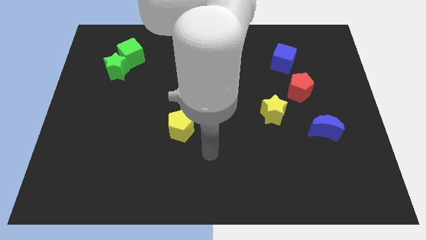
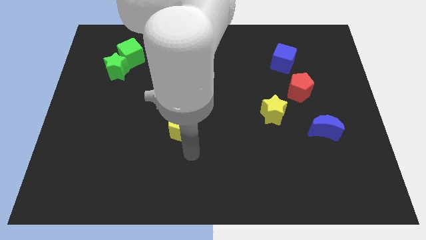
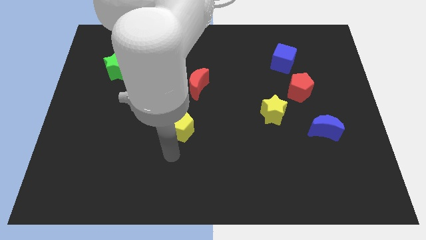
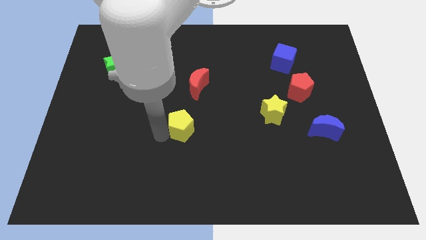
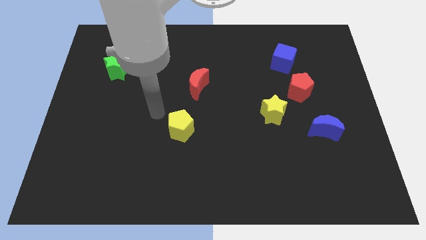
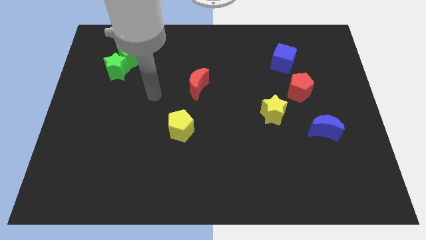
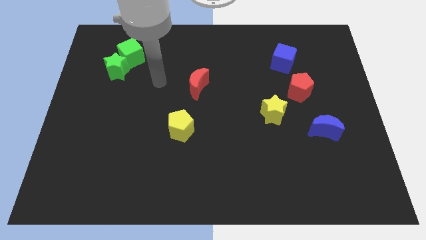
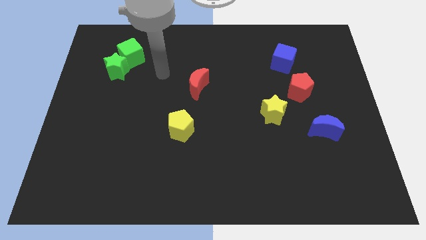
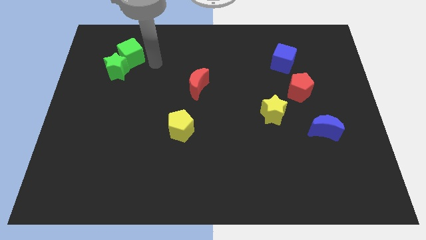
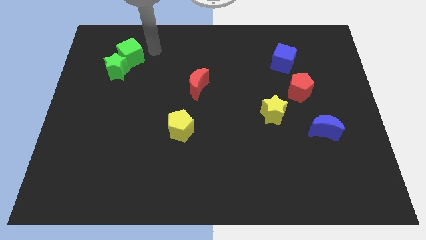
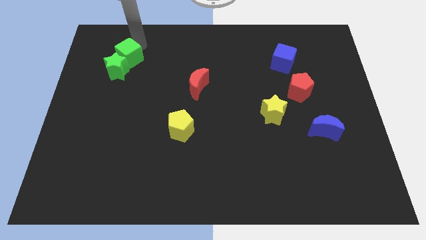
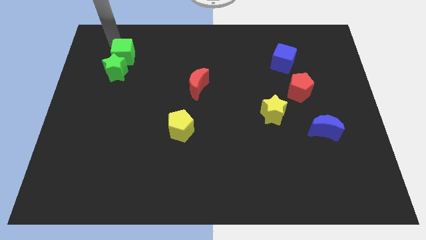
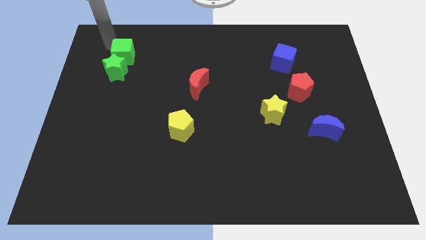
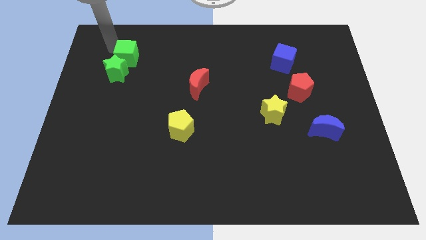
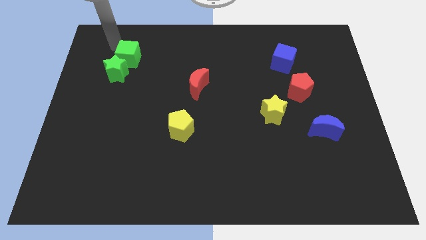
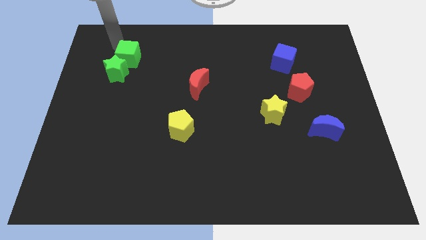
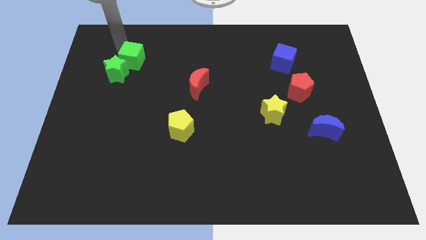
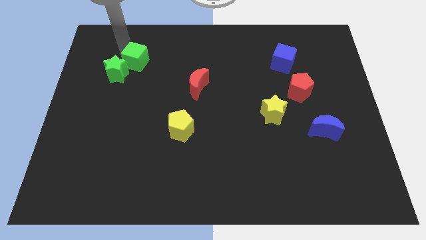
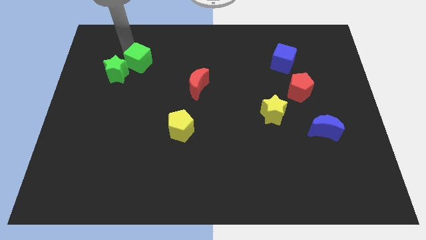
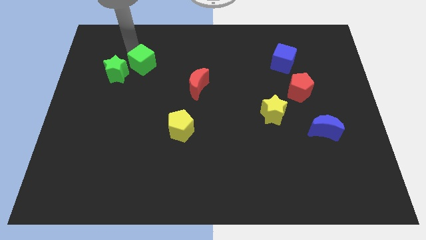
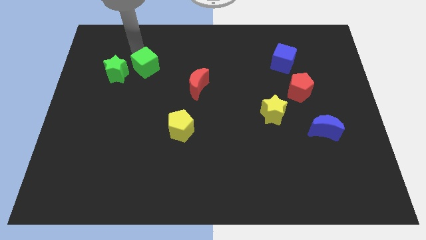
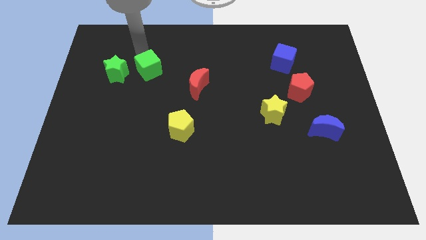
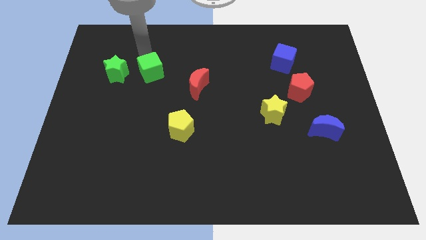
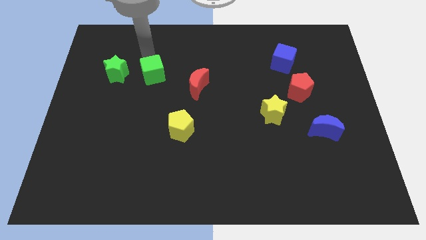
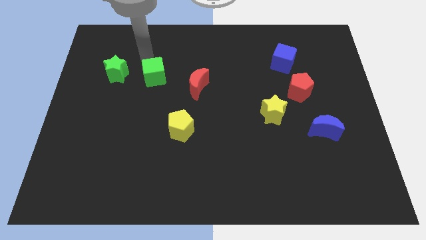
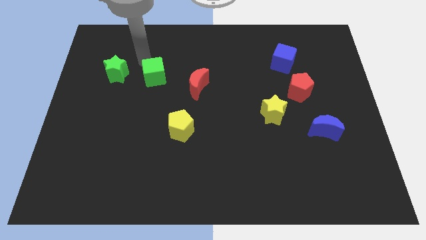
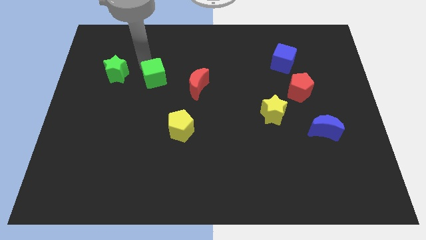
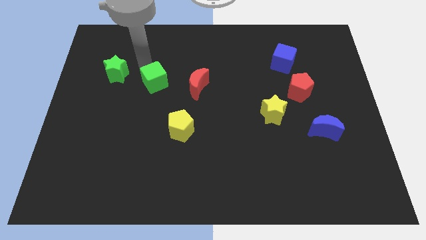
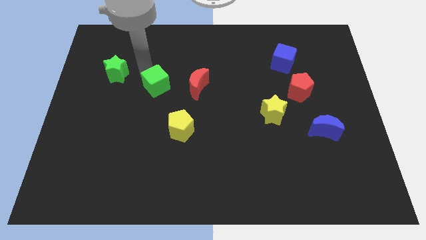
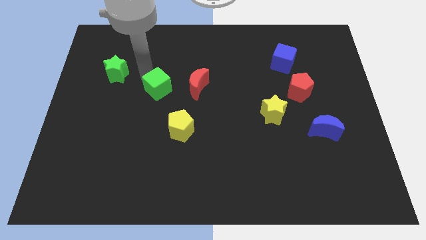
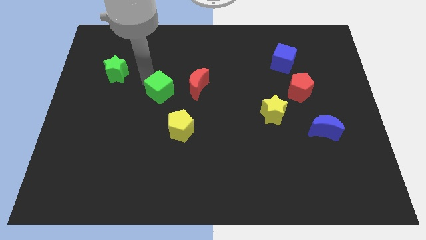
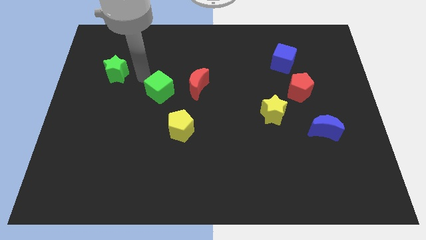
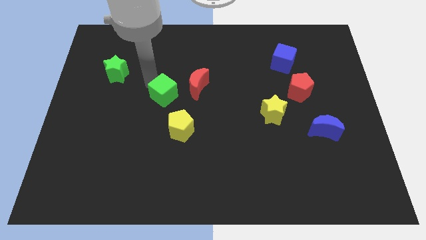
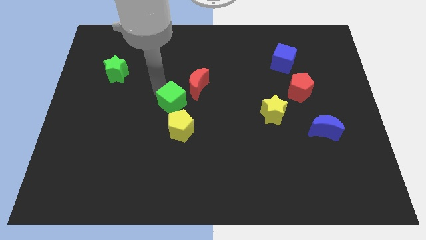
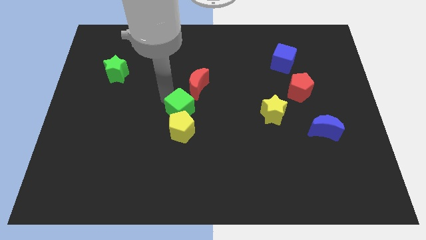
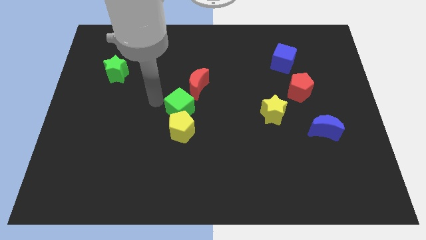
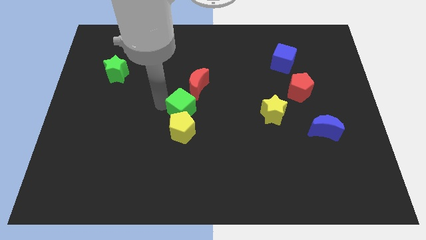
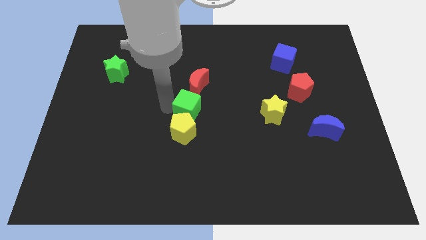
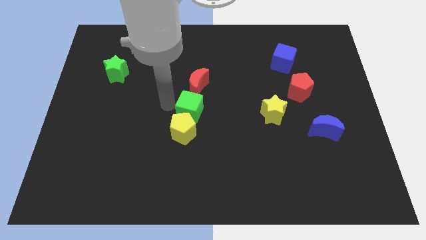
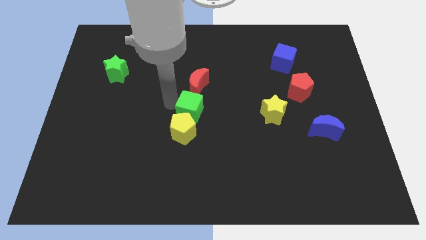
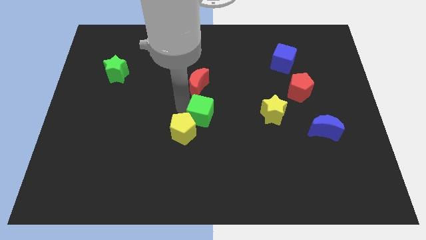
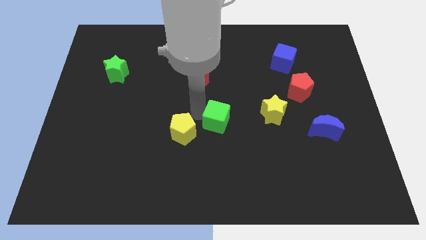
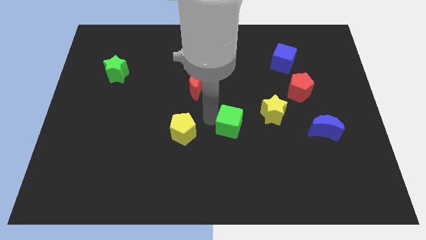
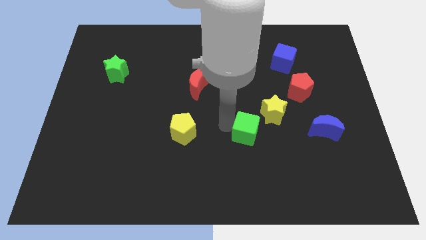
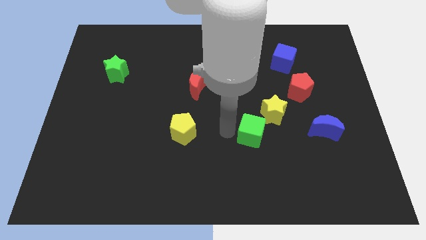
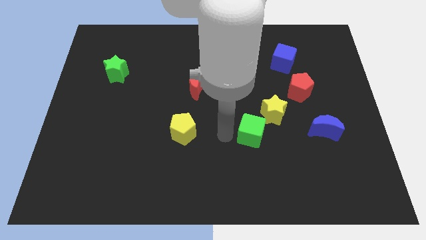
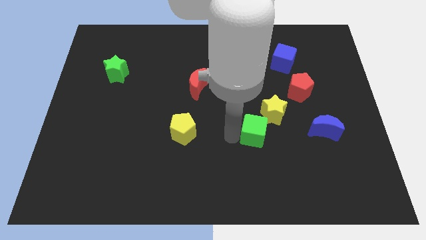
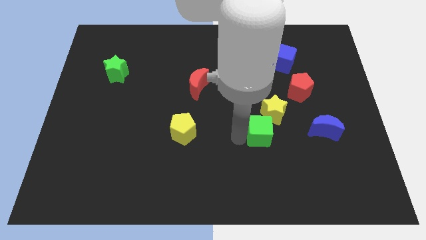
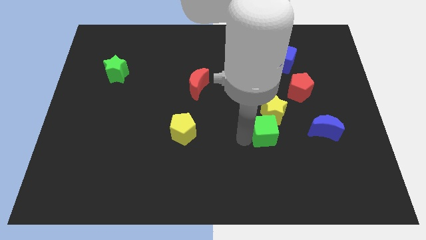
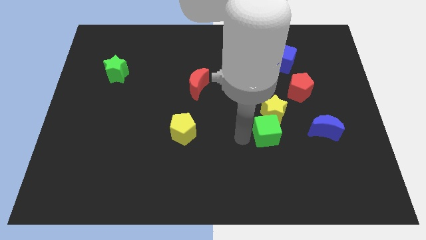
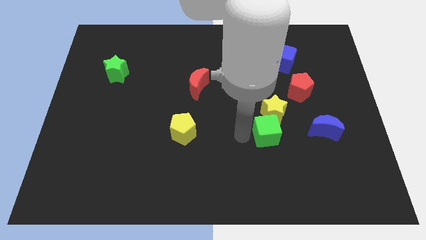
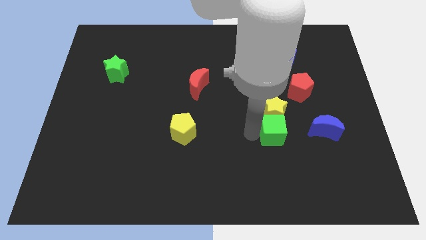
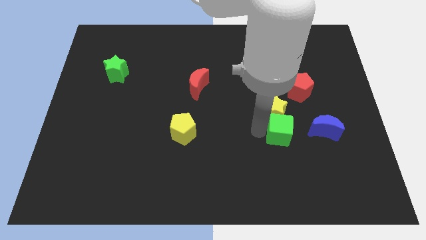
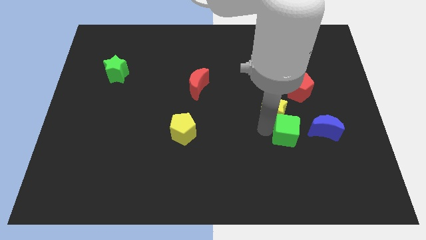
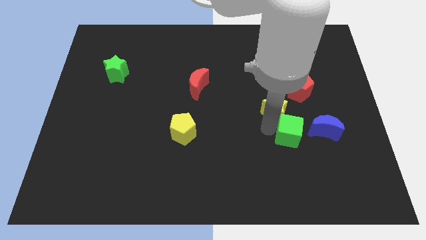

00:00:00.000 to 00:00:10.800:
slide the green cube to the bottom left of the blue moon

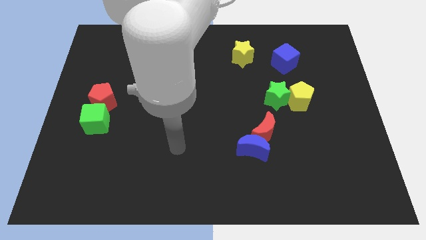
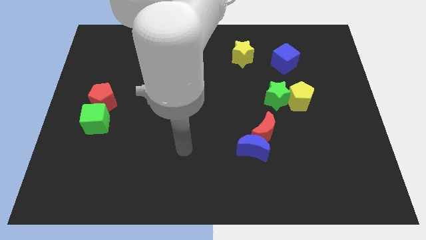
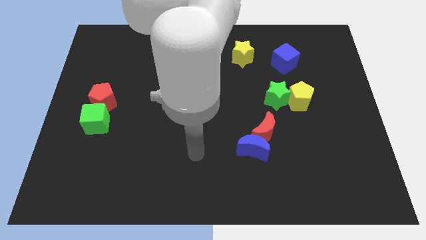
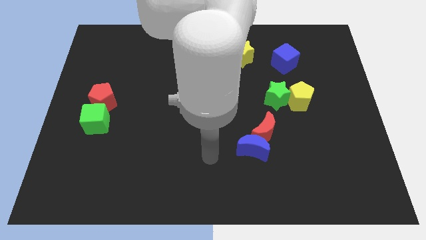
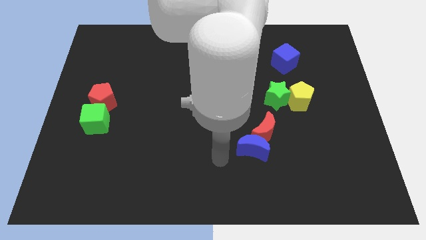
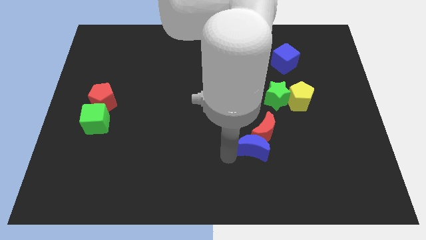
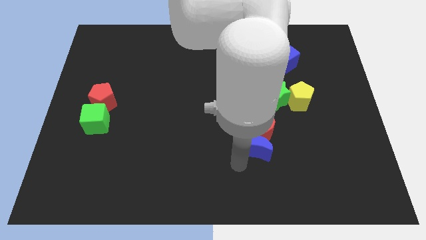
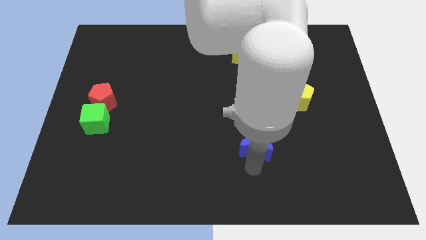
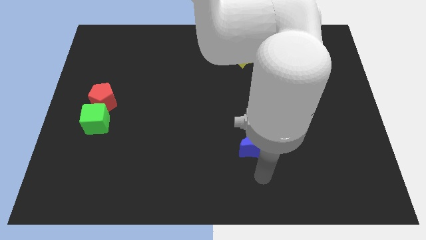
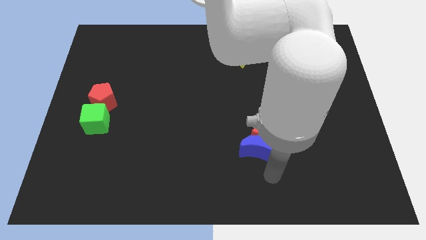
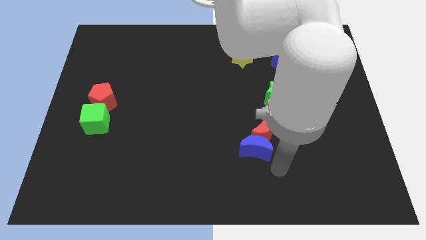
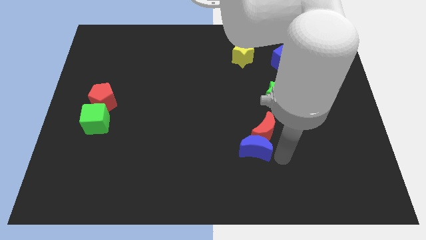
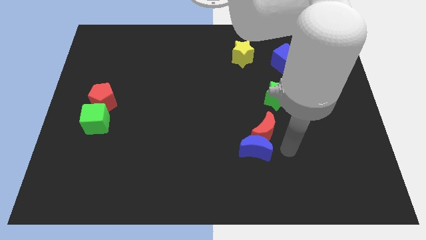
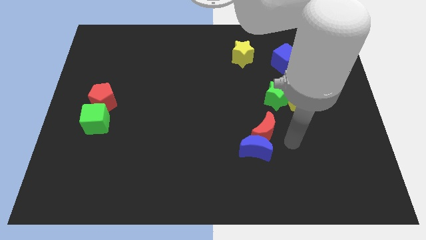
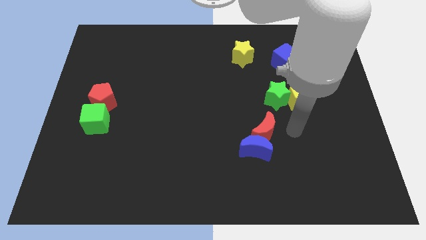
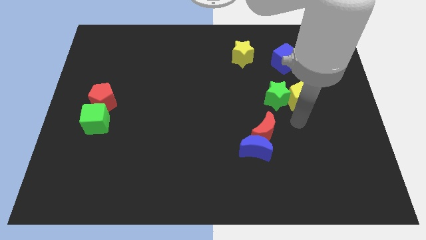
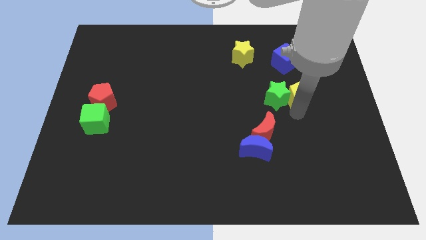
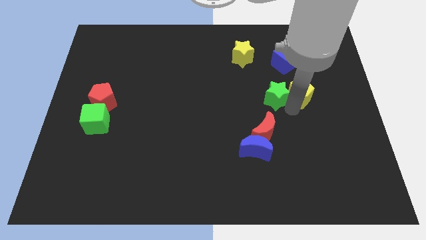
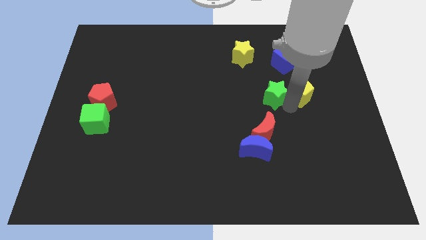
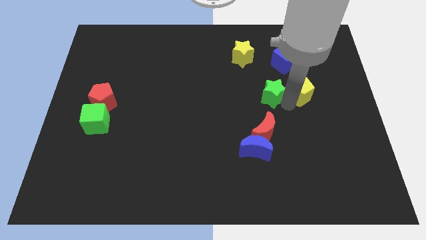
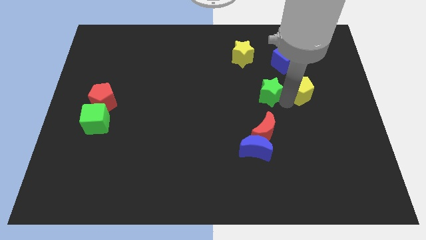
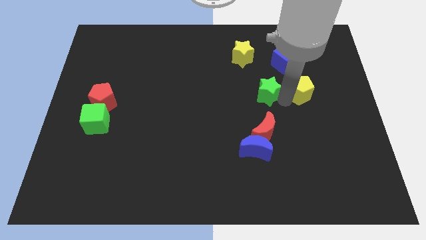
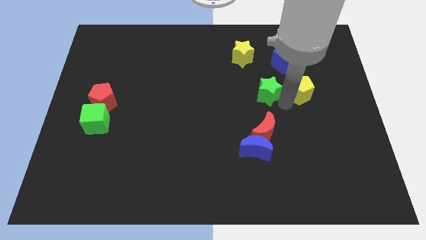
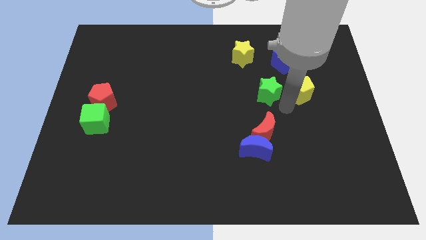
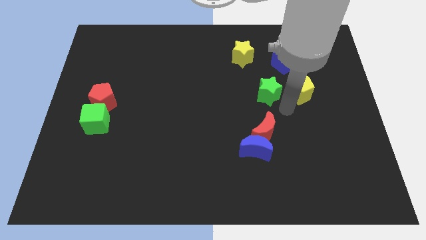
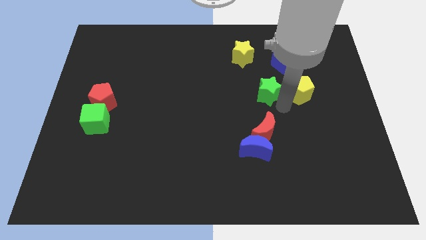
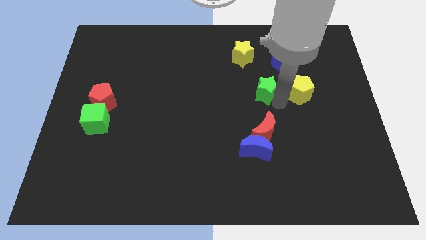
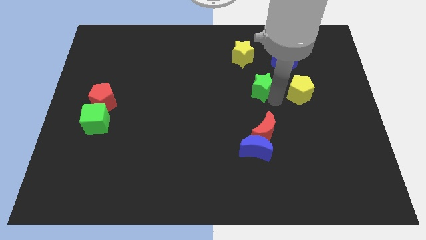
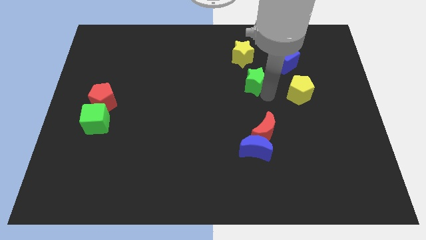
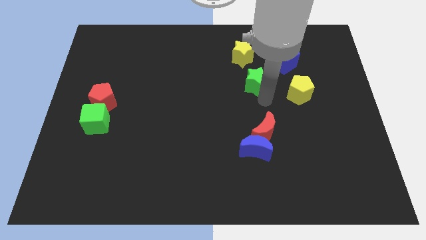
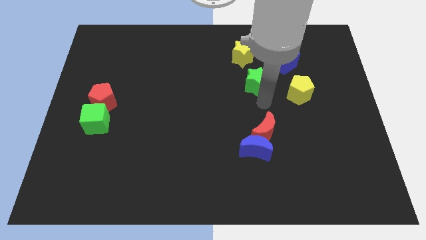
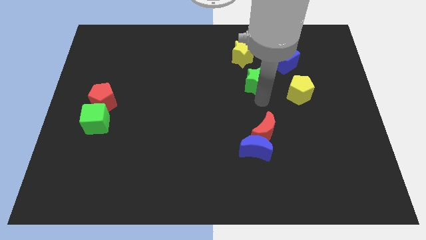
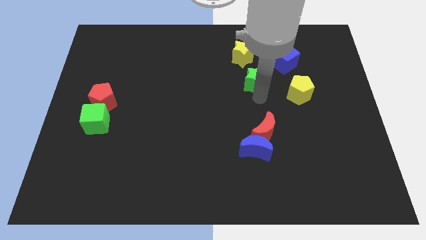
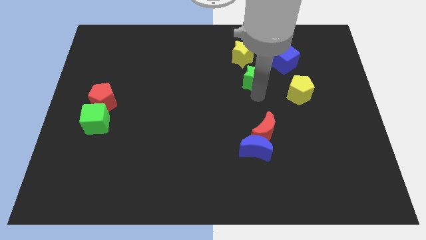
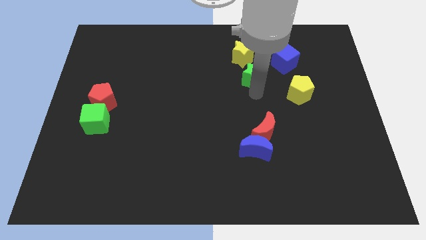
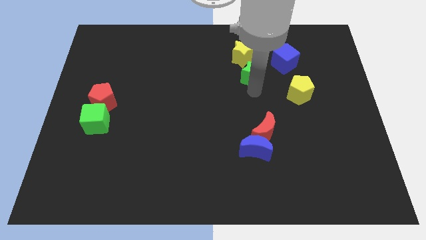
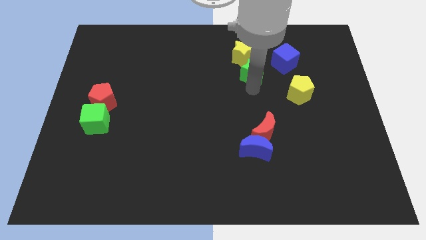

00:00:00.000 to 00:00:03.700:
slide the green star left of the blue cube
